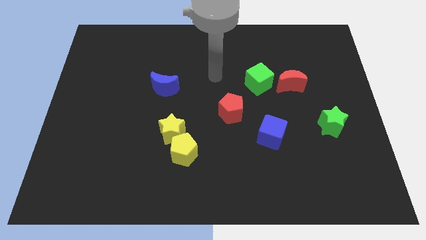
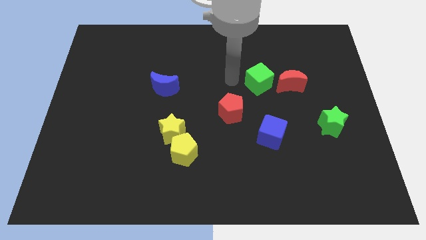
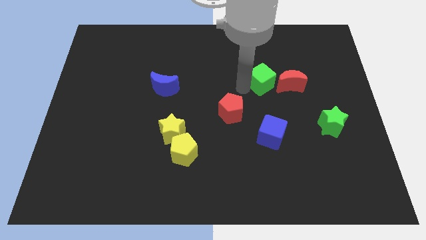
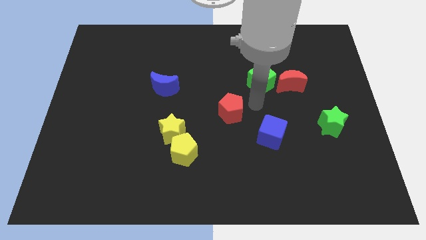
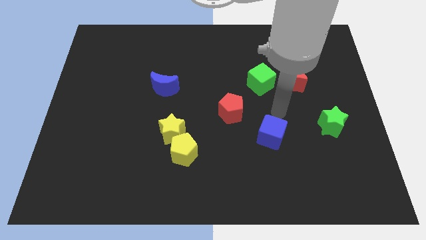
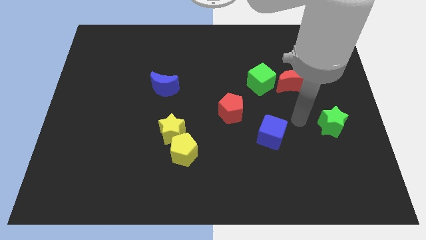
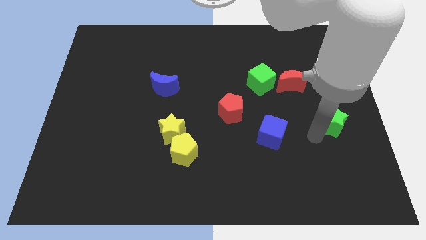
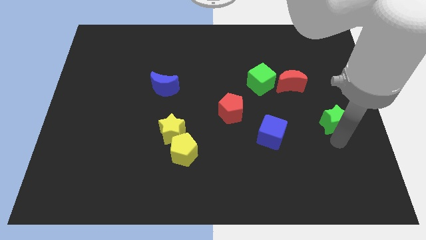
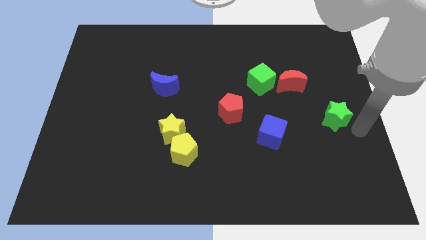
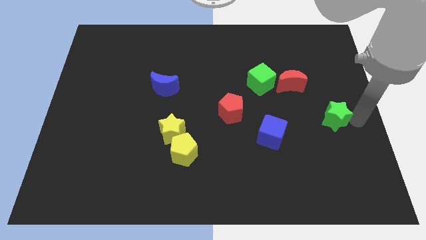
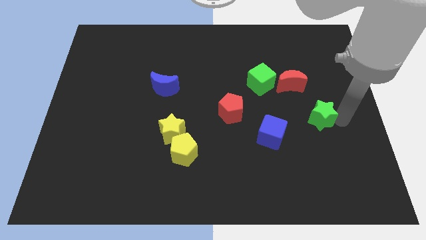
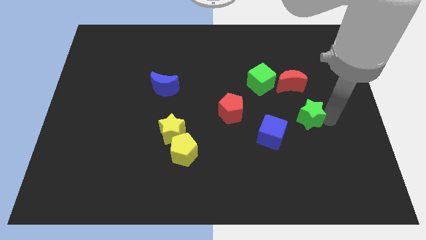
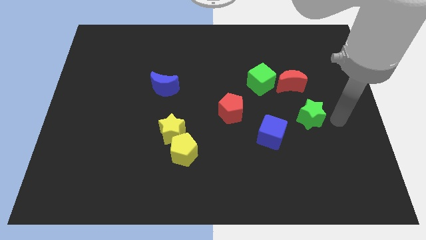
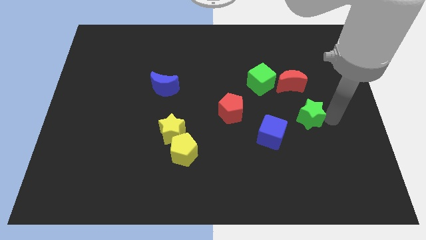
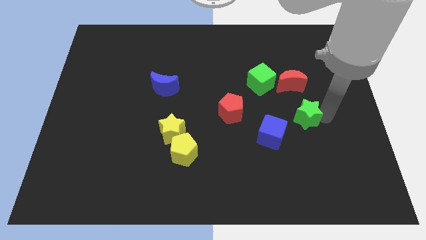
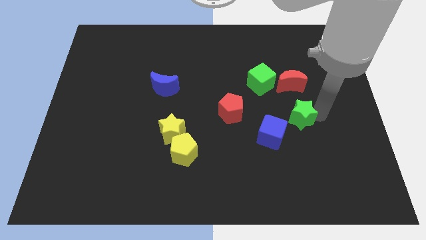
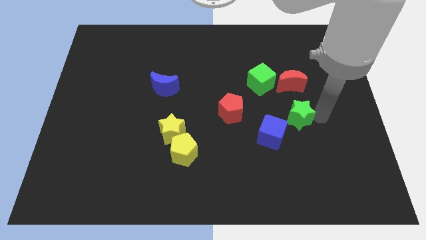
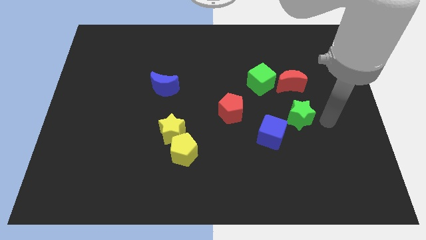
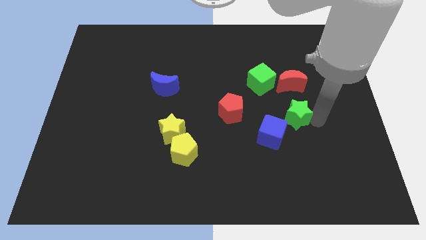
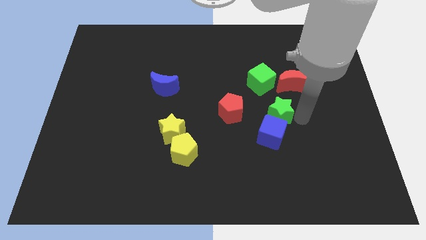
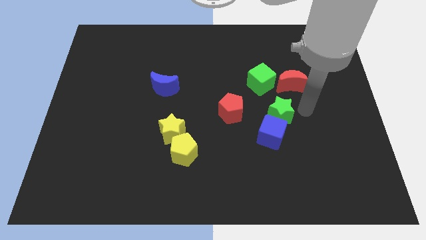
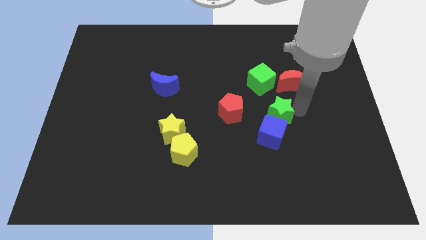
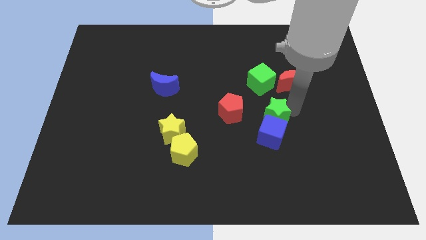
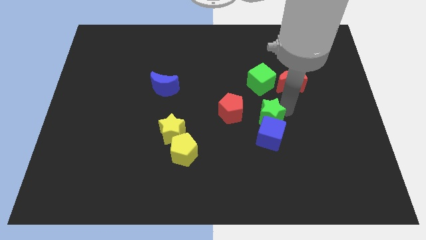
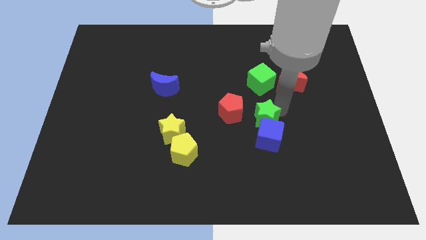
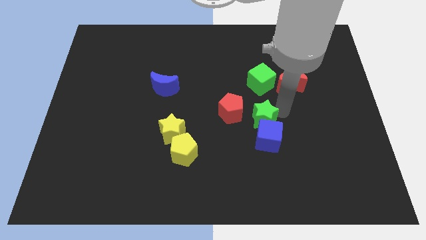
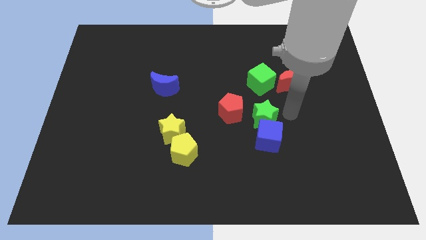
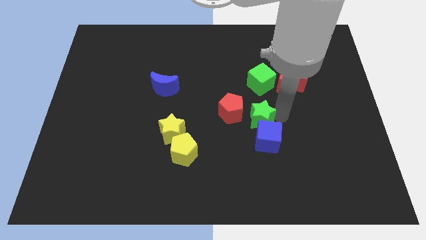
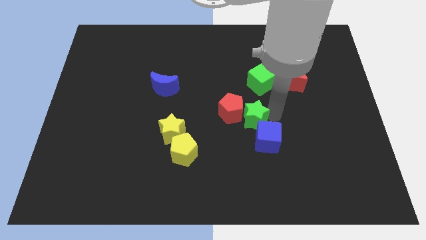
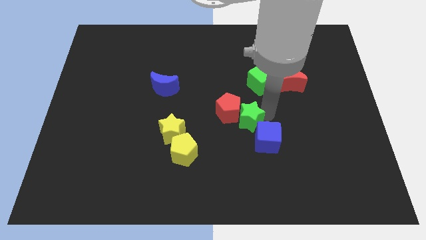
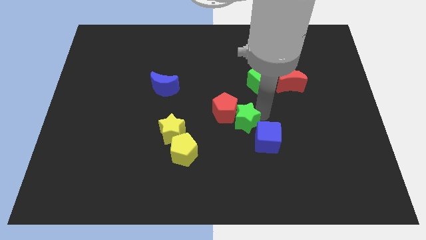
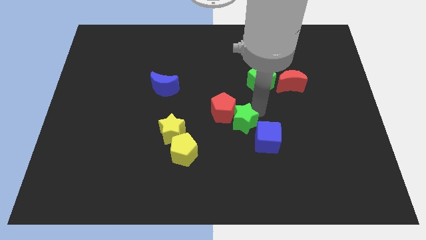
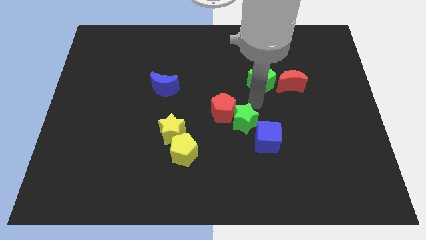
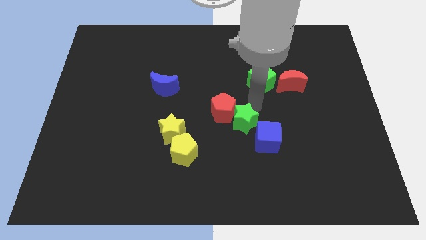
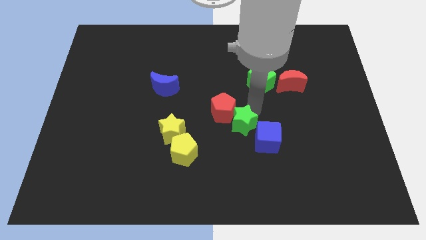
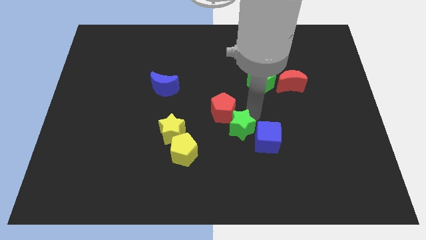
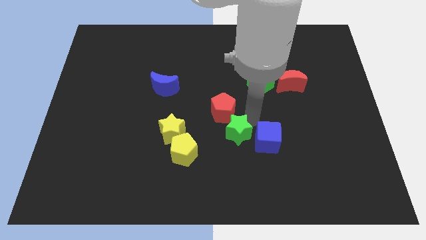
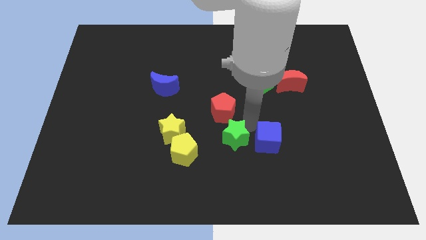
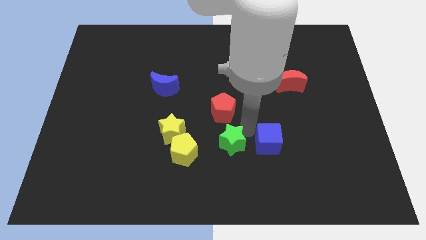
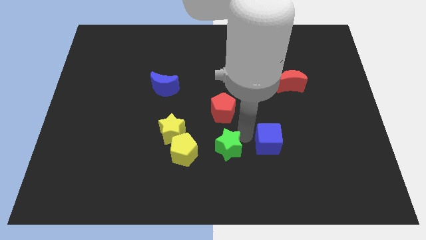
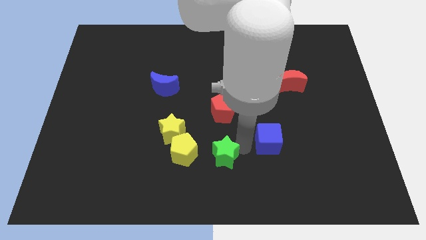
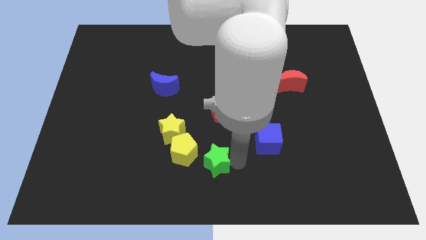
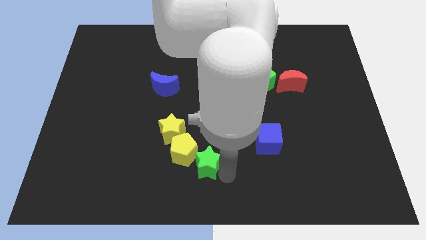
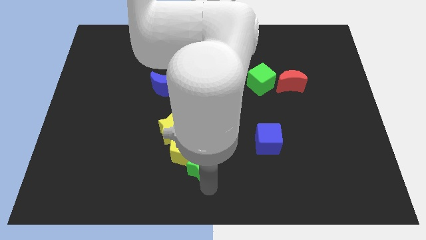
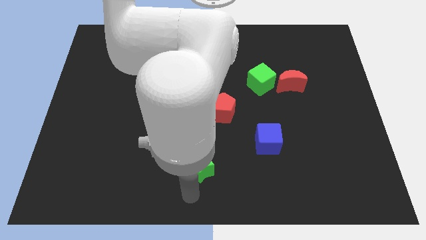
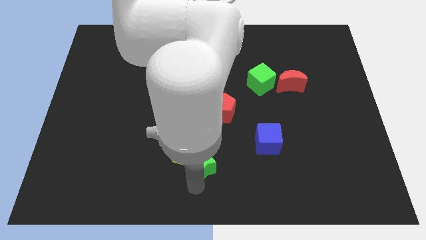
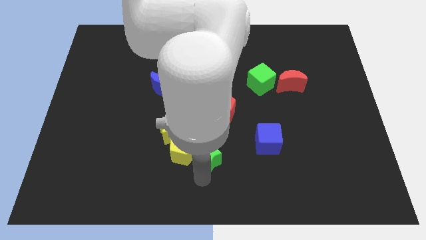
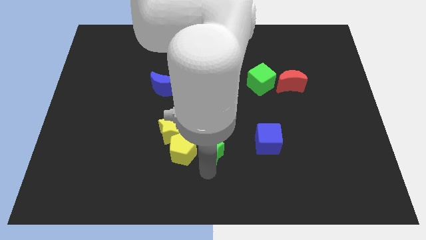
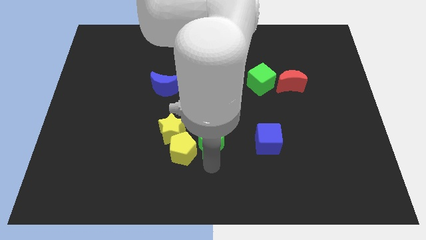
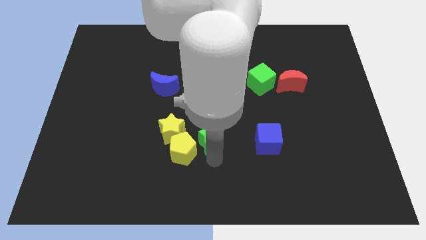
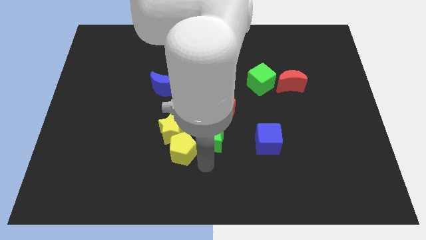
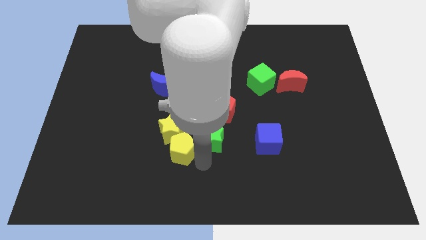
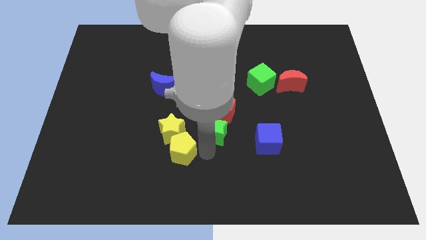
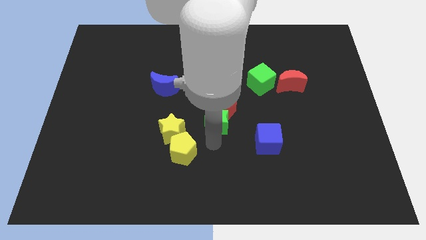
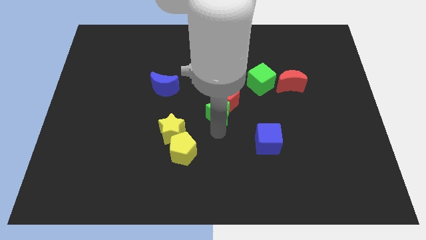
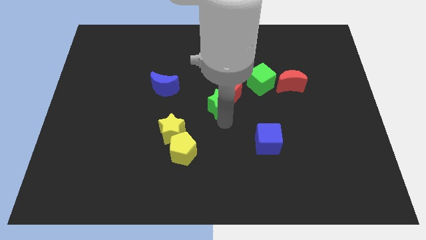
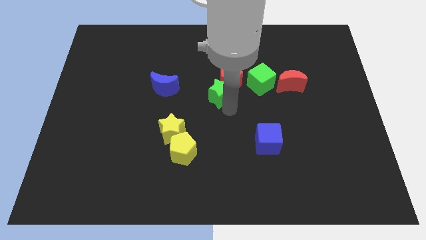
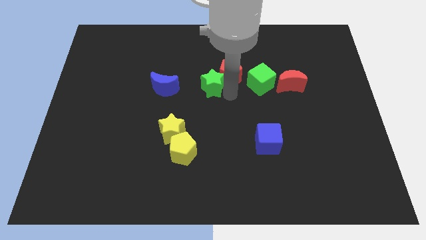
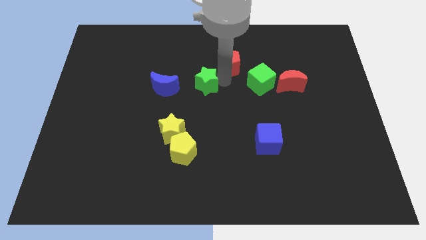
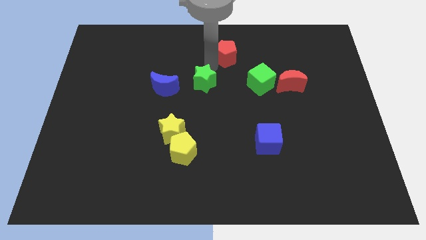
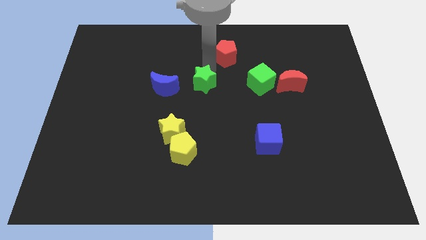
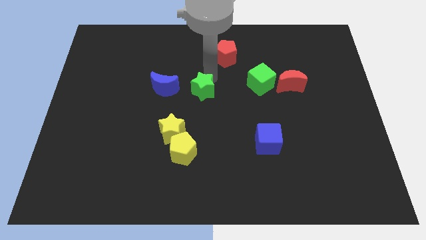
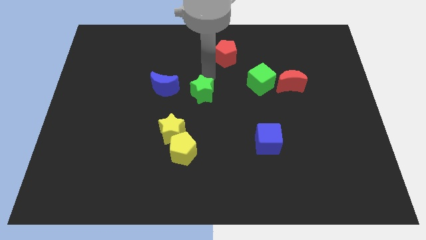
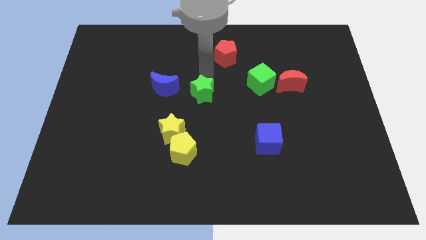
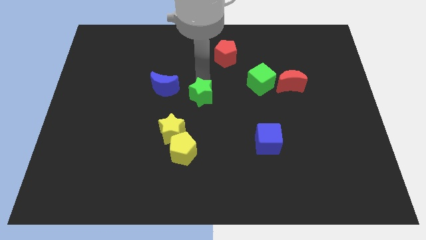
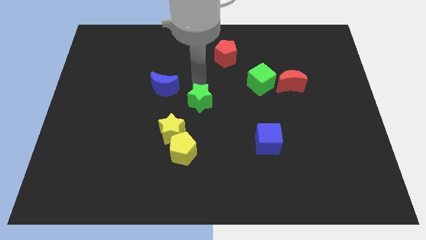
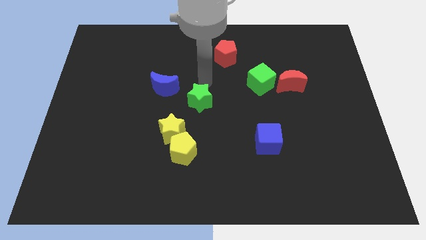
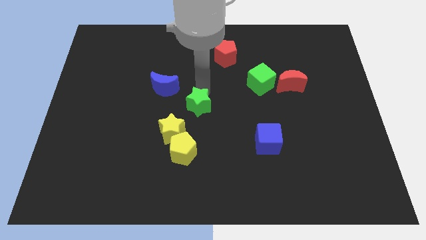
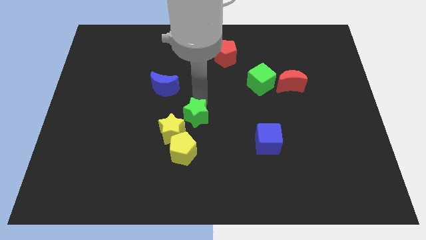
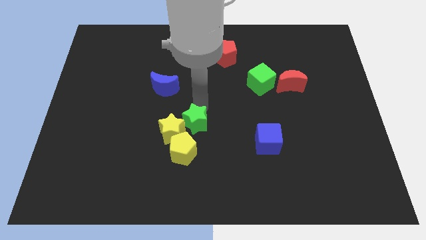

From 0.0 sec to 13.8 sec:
move the green star towards the yellow star
